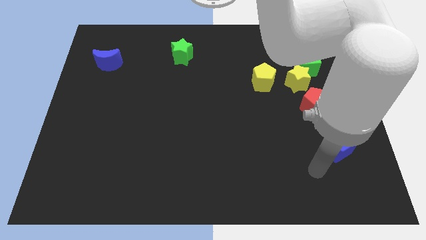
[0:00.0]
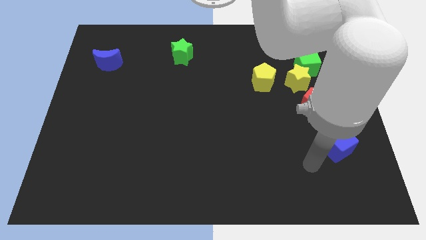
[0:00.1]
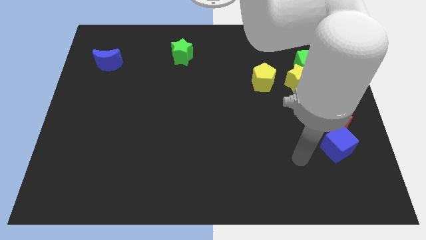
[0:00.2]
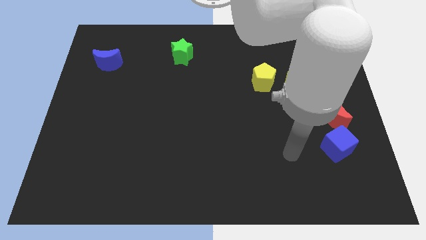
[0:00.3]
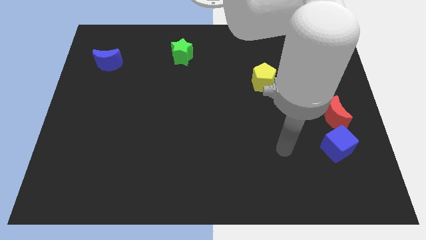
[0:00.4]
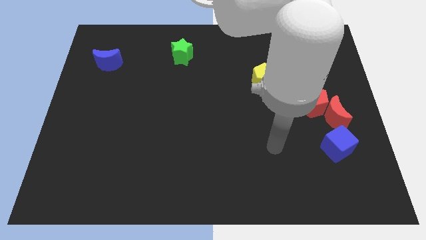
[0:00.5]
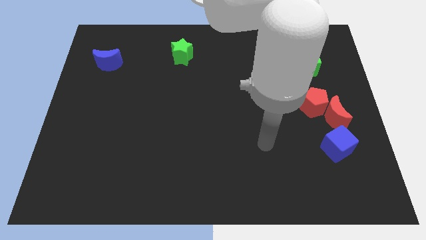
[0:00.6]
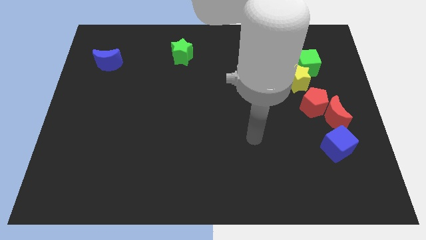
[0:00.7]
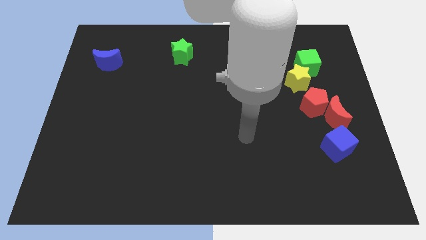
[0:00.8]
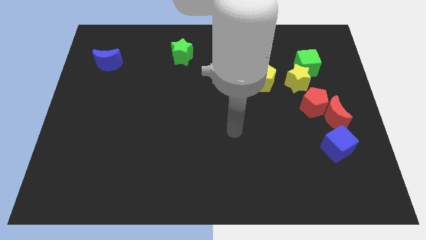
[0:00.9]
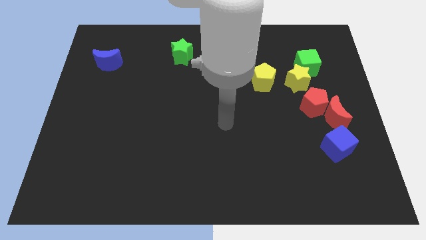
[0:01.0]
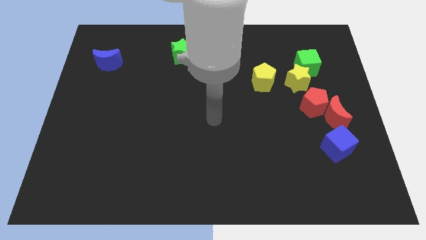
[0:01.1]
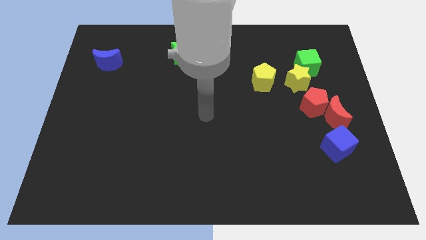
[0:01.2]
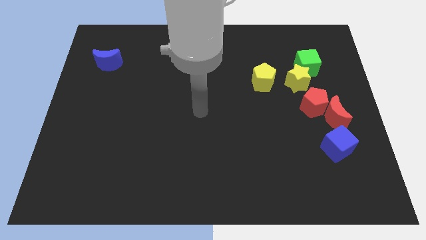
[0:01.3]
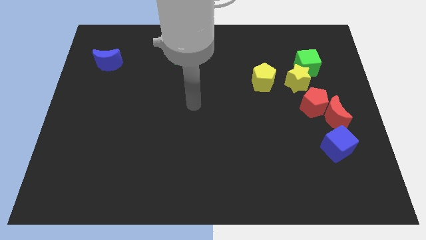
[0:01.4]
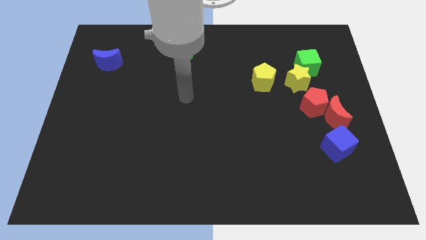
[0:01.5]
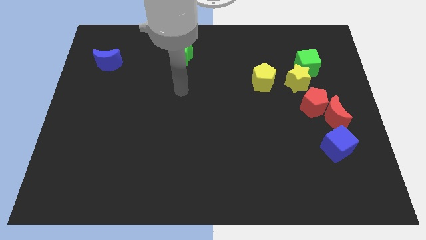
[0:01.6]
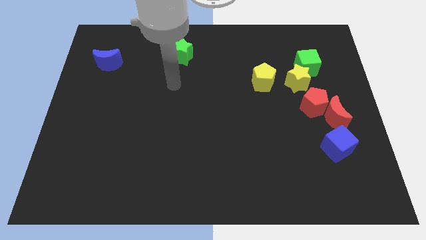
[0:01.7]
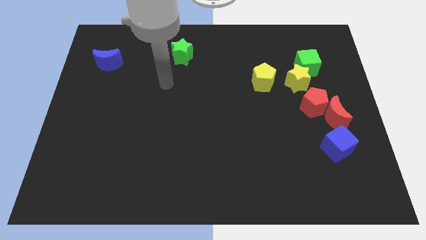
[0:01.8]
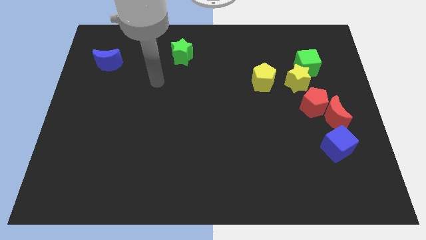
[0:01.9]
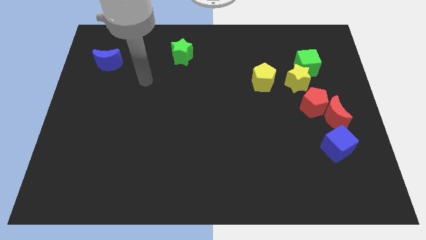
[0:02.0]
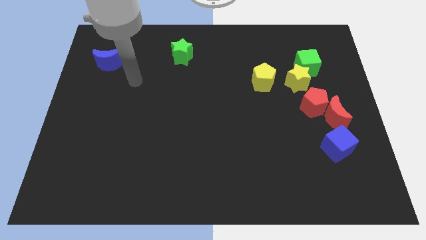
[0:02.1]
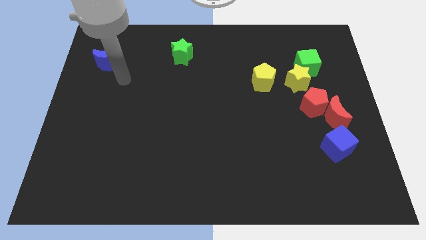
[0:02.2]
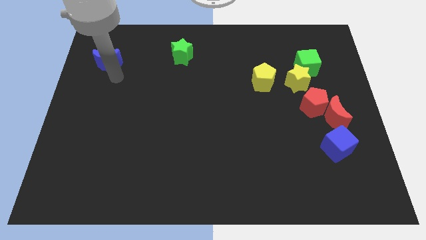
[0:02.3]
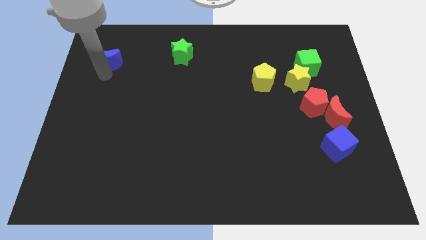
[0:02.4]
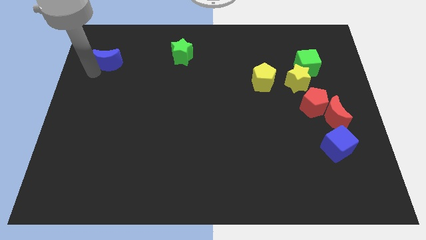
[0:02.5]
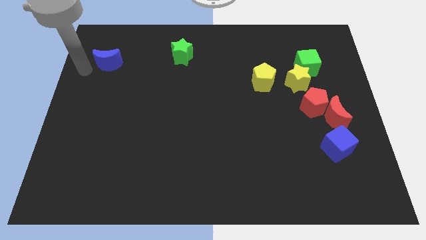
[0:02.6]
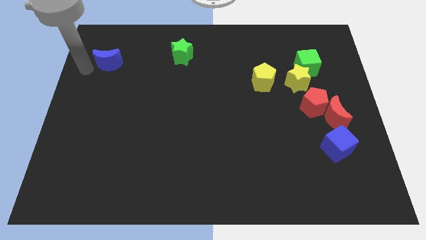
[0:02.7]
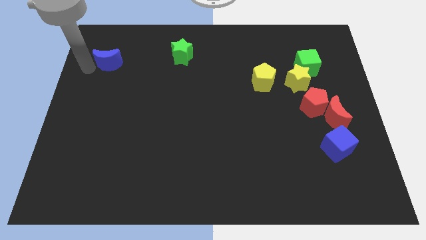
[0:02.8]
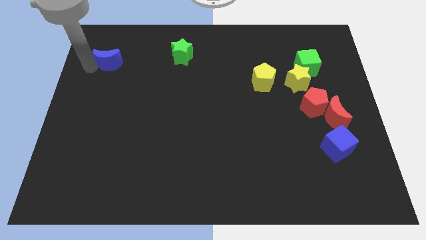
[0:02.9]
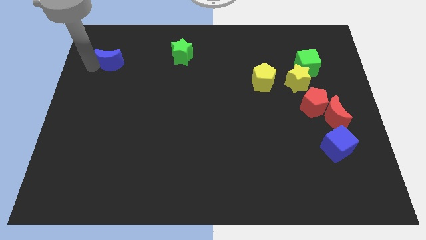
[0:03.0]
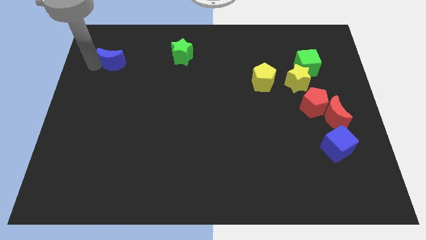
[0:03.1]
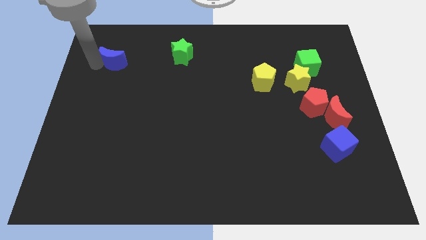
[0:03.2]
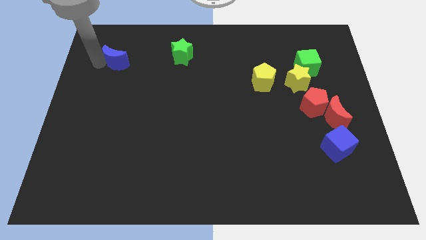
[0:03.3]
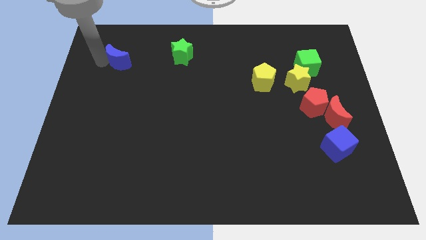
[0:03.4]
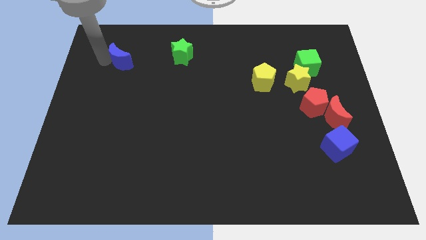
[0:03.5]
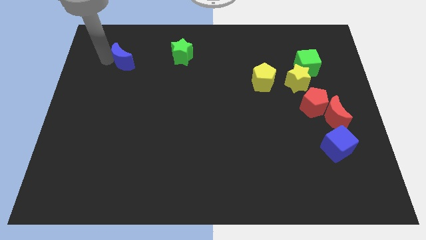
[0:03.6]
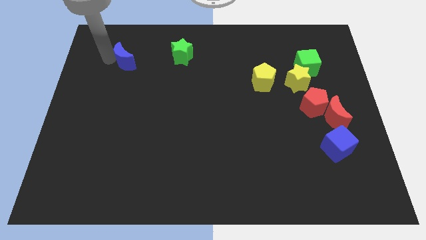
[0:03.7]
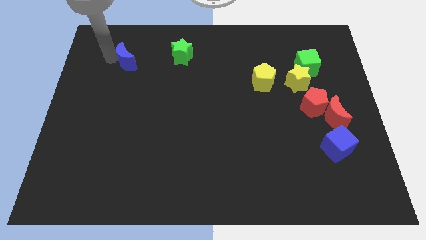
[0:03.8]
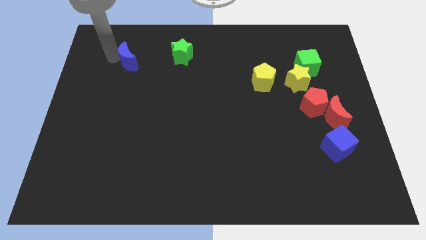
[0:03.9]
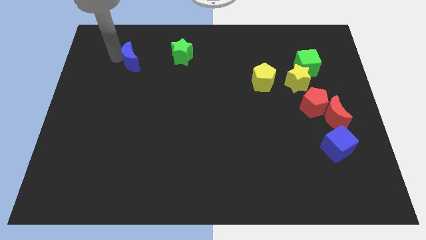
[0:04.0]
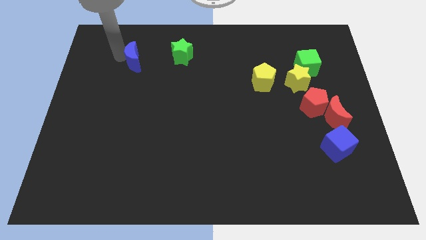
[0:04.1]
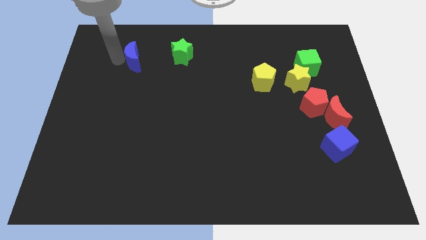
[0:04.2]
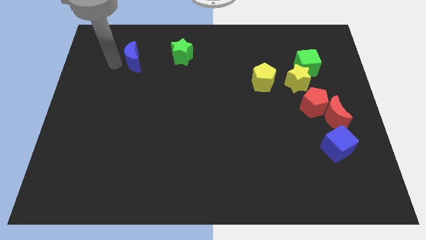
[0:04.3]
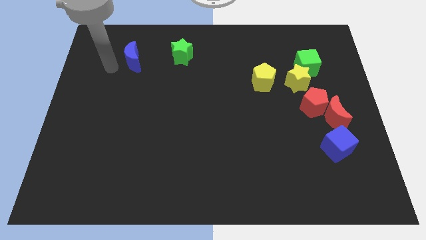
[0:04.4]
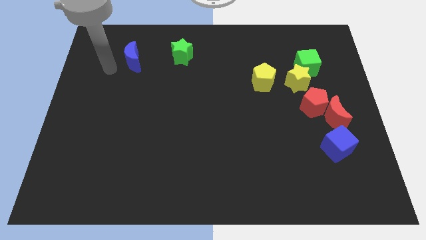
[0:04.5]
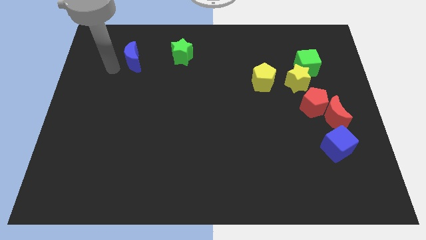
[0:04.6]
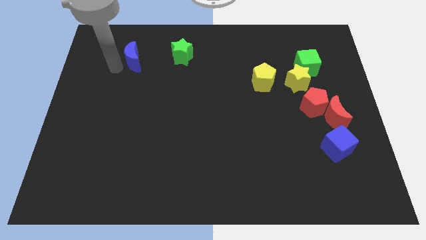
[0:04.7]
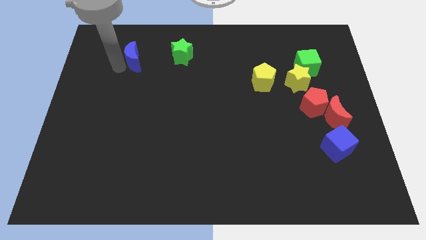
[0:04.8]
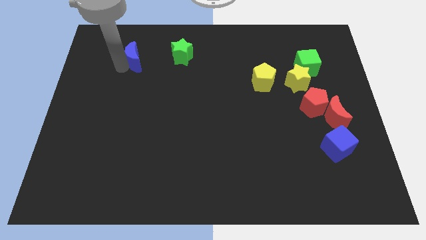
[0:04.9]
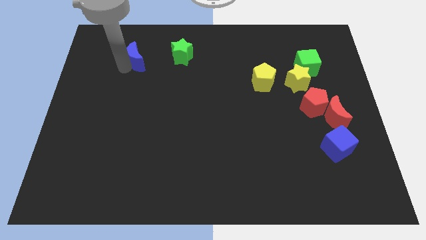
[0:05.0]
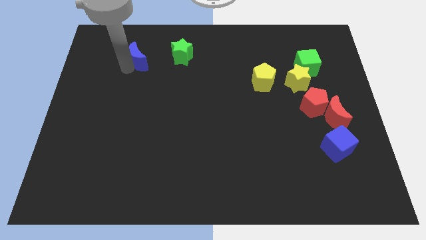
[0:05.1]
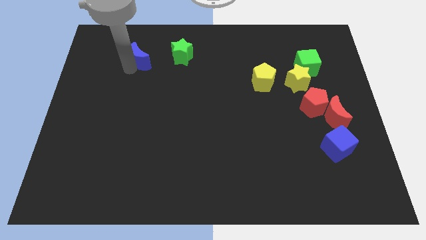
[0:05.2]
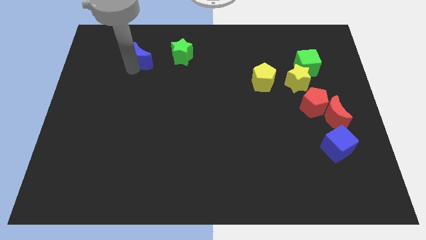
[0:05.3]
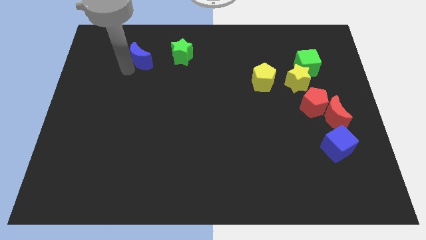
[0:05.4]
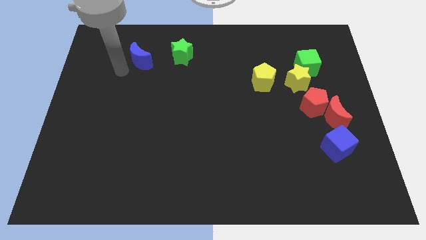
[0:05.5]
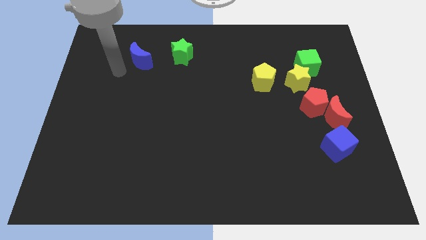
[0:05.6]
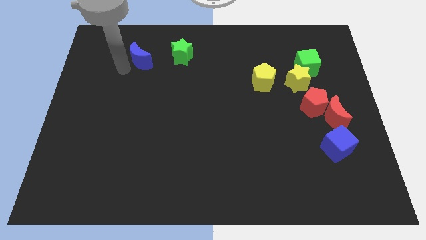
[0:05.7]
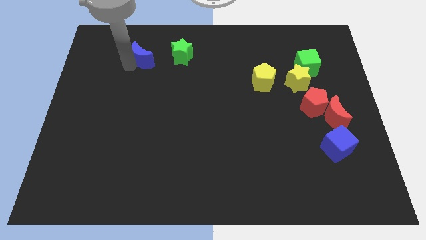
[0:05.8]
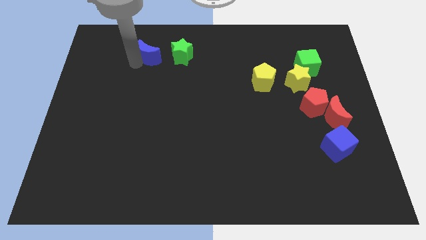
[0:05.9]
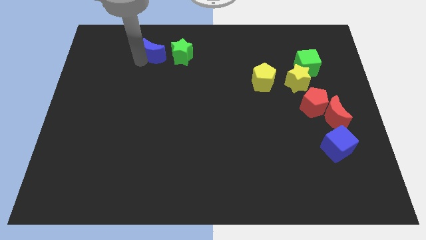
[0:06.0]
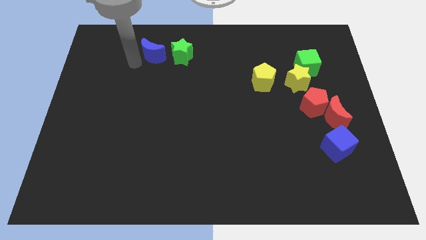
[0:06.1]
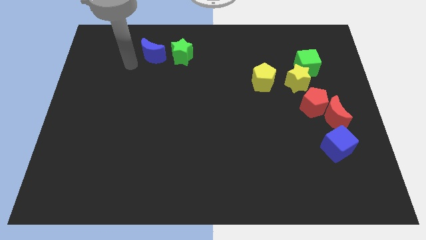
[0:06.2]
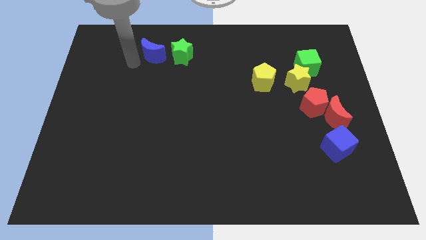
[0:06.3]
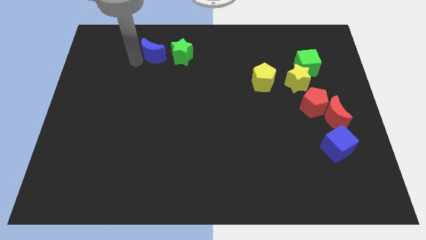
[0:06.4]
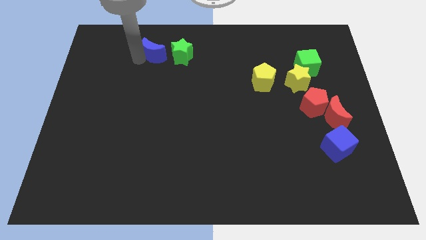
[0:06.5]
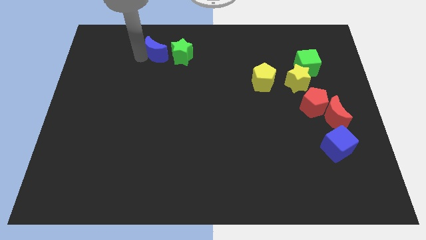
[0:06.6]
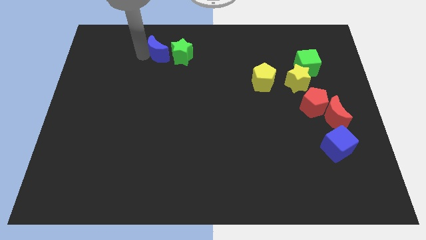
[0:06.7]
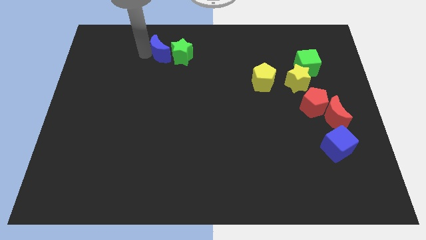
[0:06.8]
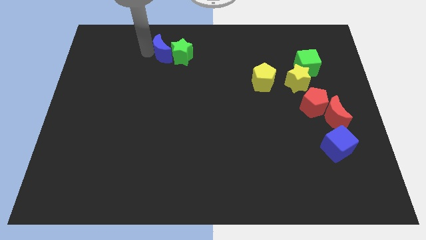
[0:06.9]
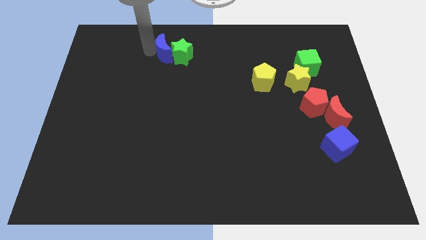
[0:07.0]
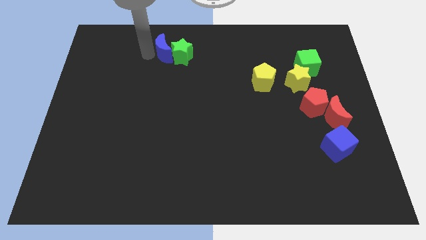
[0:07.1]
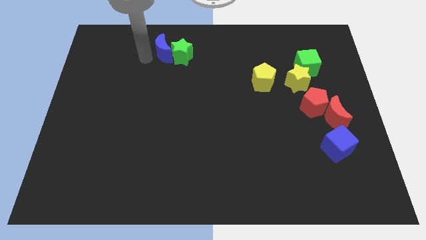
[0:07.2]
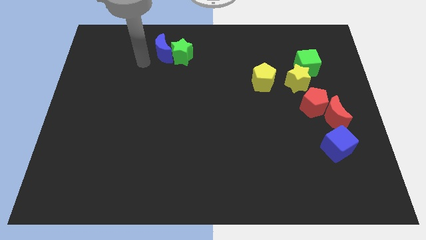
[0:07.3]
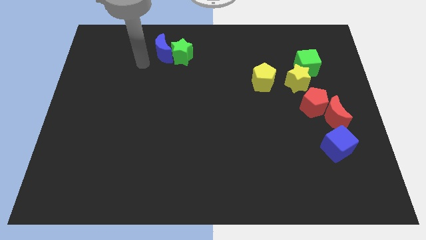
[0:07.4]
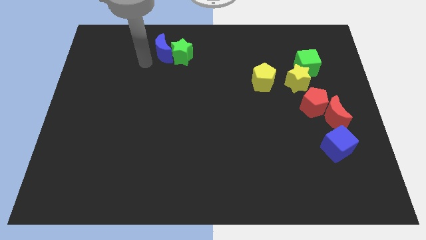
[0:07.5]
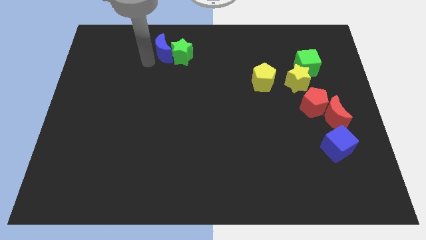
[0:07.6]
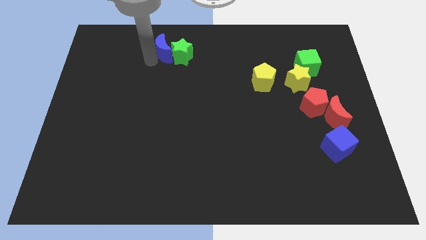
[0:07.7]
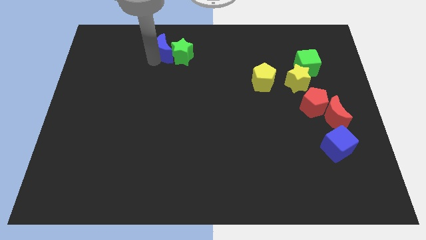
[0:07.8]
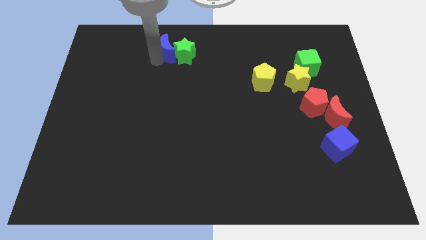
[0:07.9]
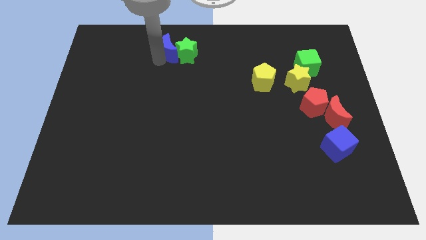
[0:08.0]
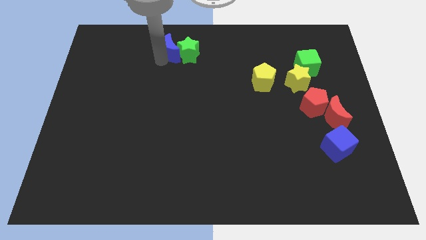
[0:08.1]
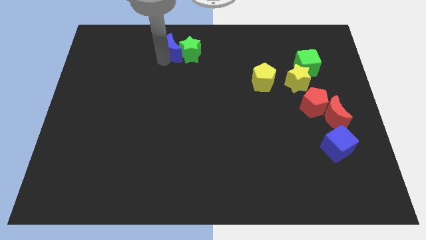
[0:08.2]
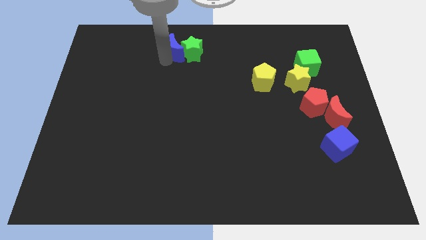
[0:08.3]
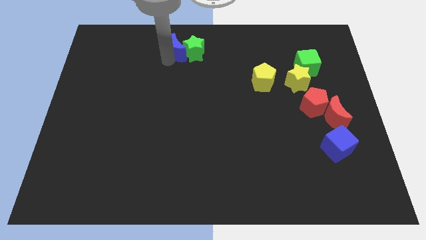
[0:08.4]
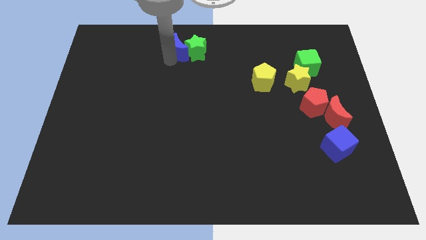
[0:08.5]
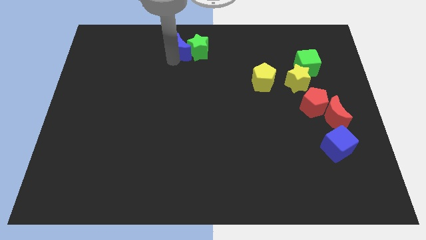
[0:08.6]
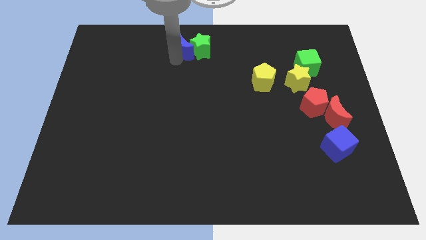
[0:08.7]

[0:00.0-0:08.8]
put the blue moon to the towards your base
